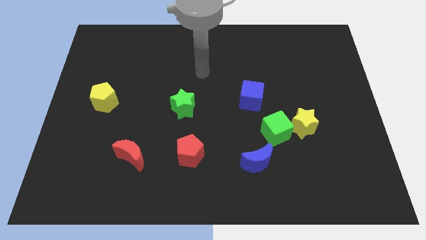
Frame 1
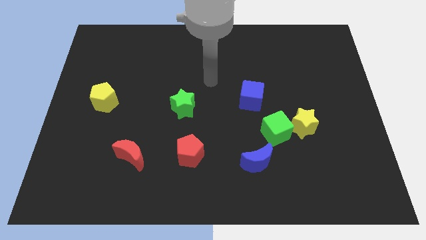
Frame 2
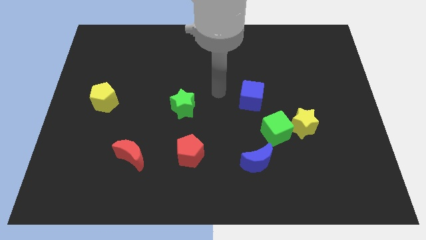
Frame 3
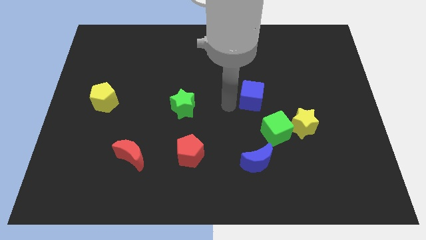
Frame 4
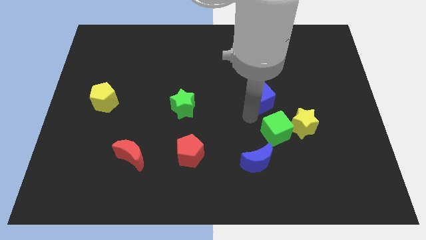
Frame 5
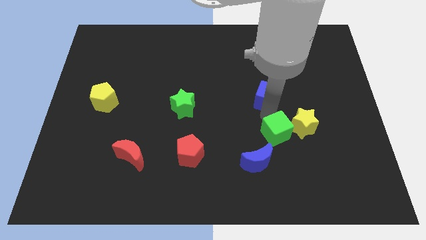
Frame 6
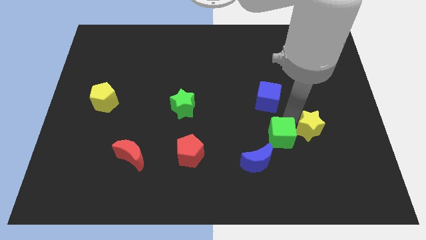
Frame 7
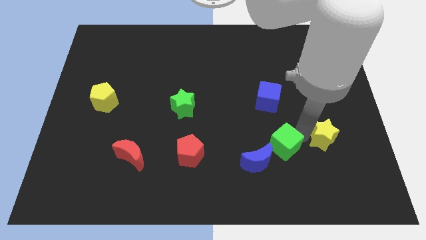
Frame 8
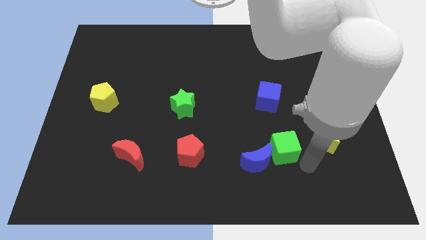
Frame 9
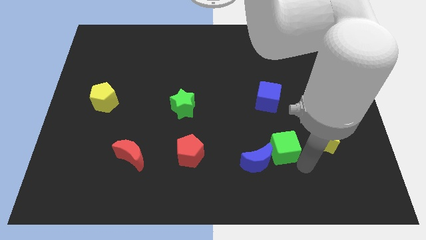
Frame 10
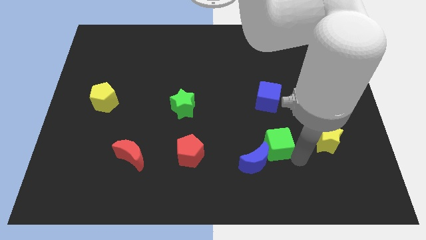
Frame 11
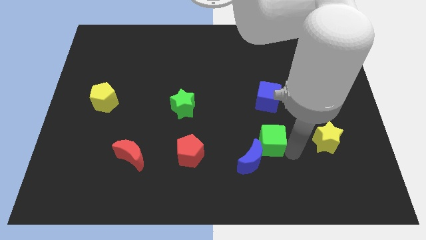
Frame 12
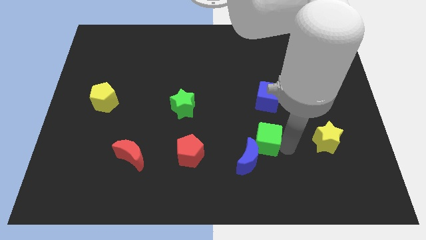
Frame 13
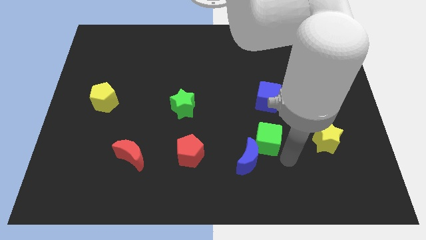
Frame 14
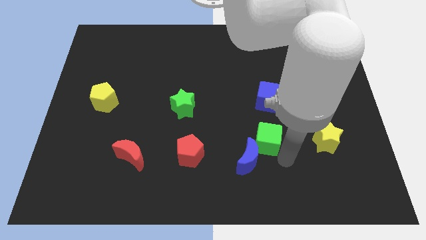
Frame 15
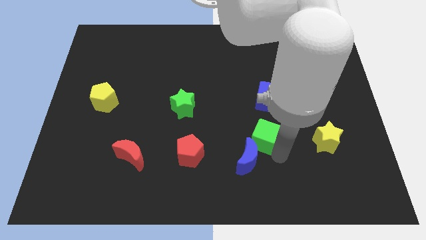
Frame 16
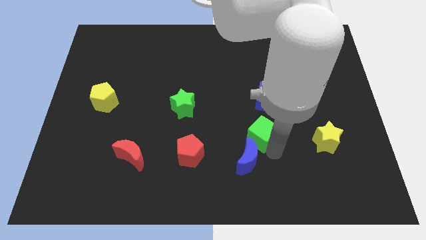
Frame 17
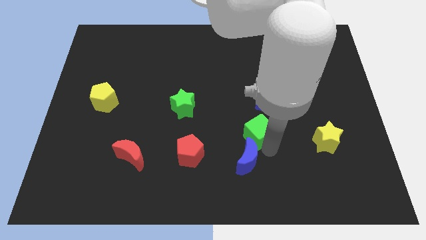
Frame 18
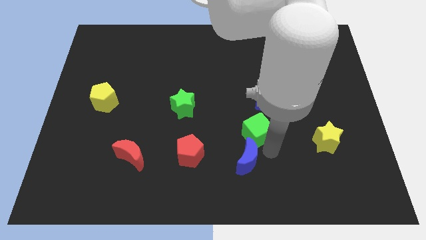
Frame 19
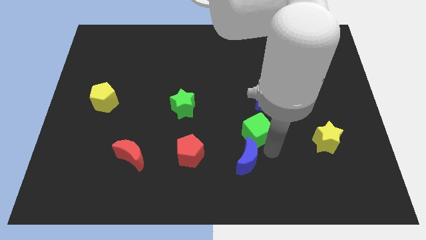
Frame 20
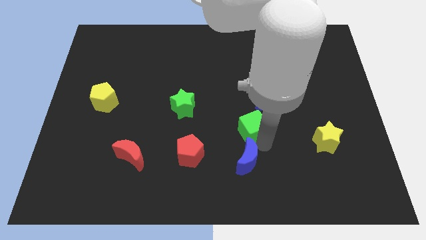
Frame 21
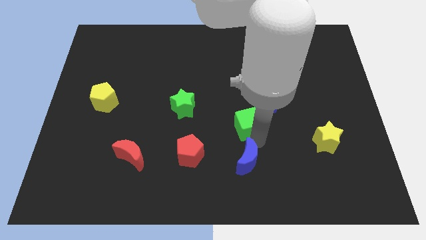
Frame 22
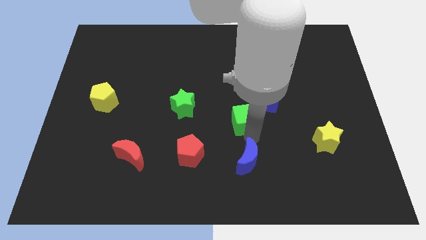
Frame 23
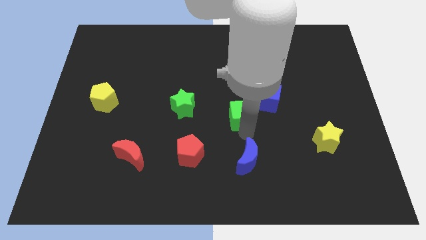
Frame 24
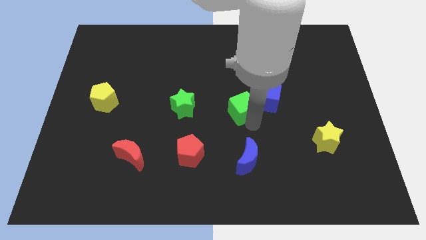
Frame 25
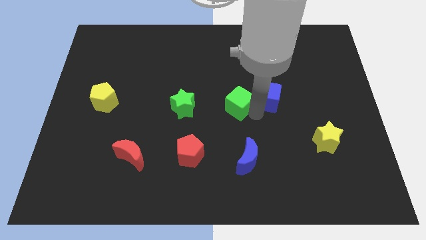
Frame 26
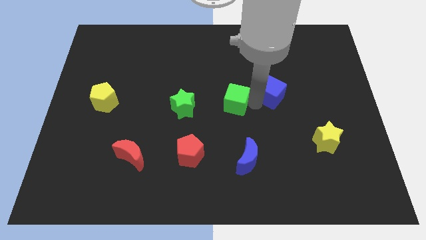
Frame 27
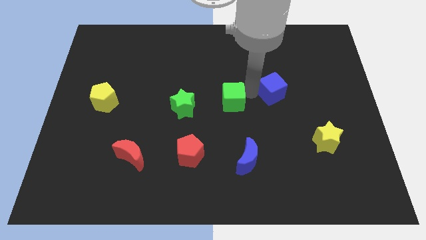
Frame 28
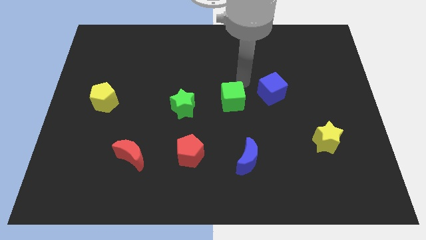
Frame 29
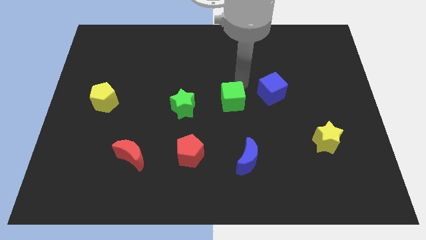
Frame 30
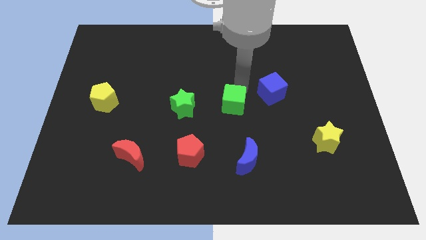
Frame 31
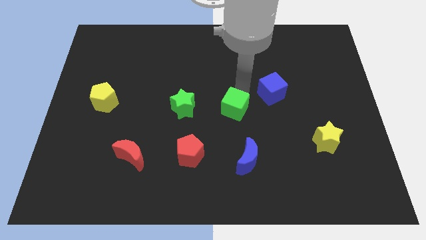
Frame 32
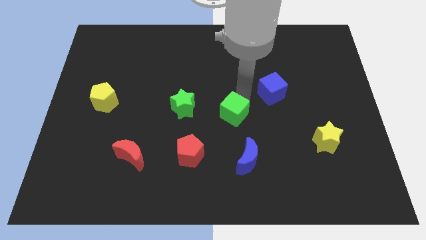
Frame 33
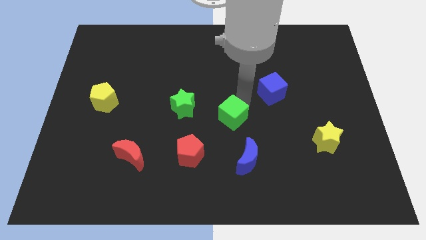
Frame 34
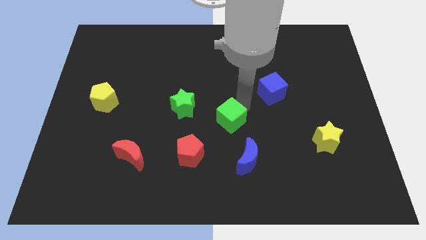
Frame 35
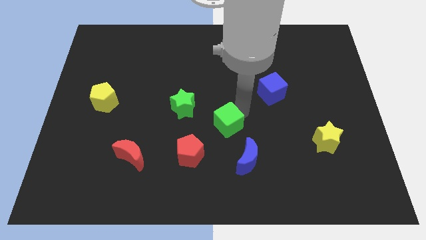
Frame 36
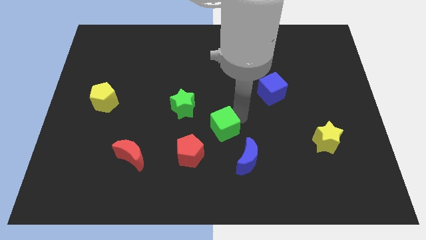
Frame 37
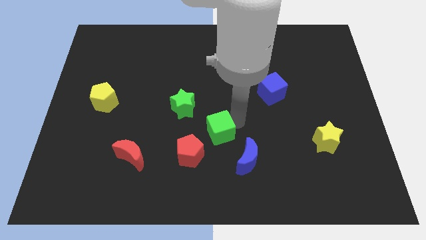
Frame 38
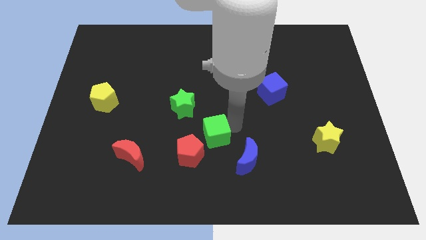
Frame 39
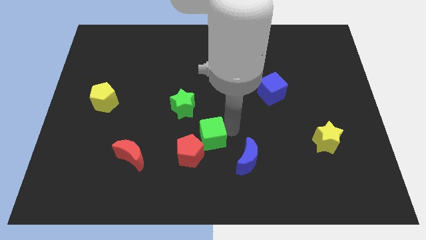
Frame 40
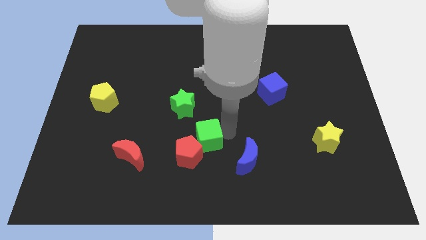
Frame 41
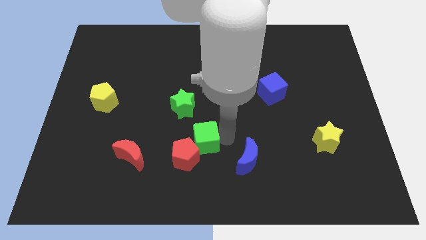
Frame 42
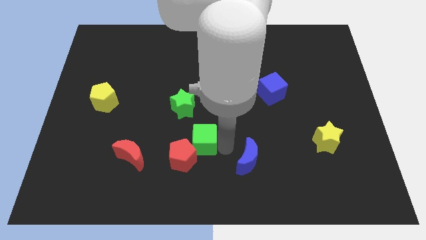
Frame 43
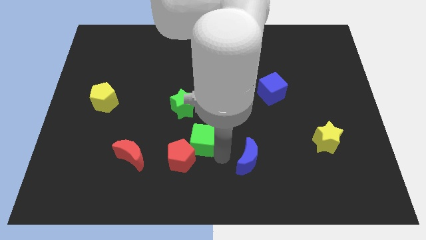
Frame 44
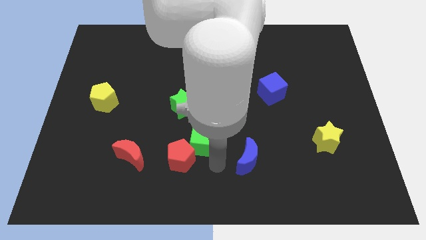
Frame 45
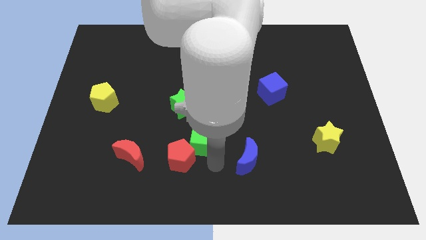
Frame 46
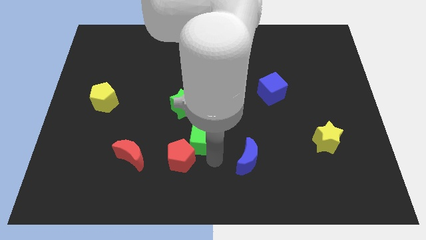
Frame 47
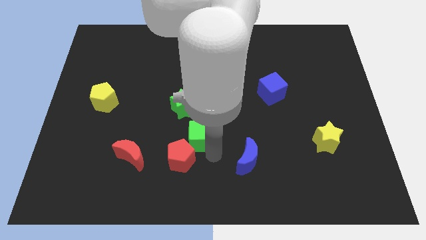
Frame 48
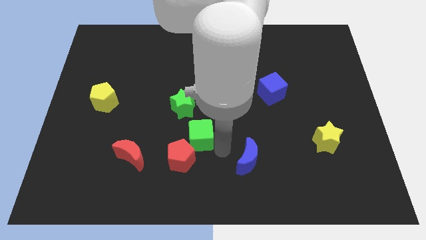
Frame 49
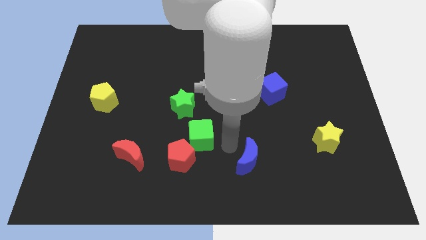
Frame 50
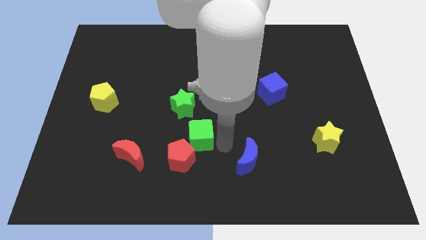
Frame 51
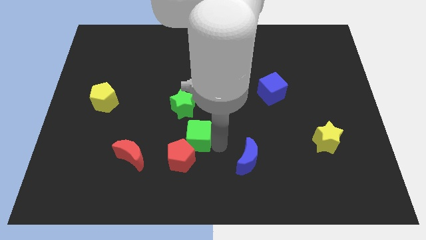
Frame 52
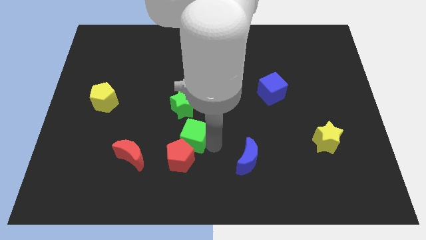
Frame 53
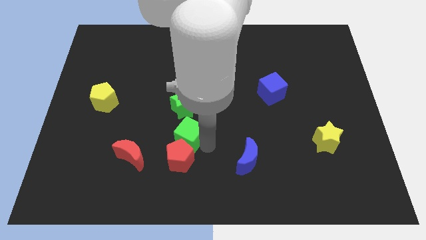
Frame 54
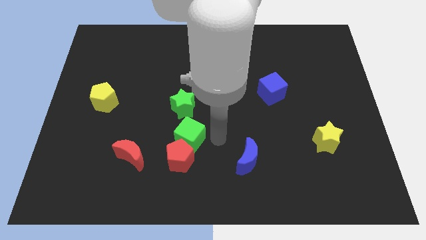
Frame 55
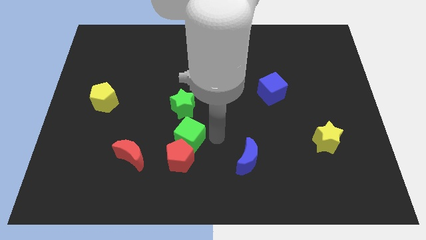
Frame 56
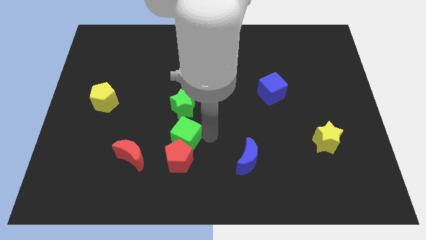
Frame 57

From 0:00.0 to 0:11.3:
move the green cube to the left

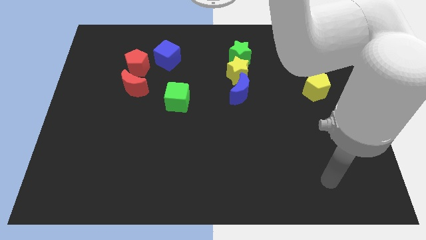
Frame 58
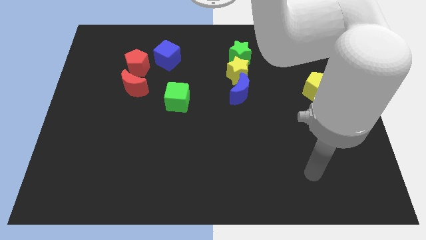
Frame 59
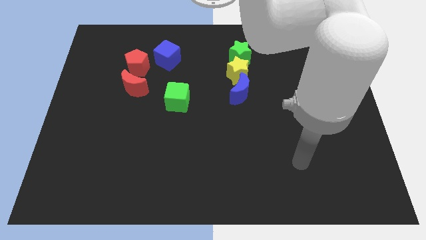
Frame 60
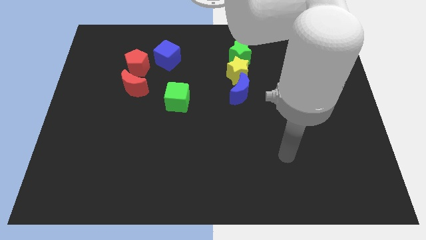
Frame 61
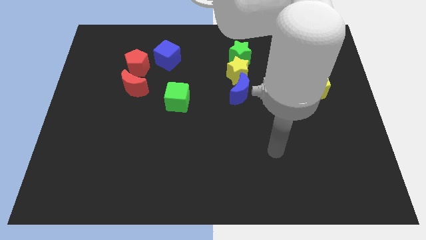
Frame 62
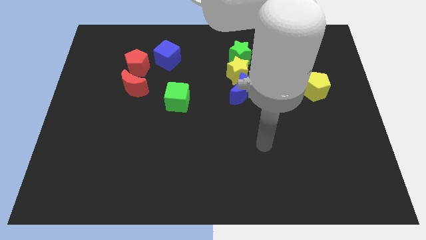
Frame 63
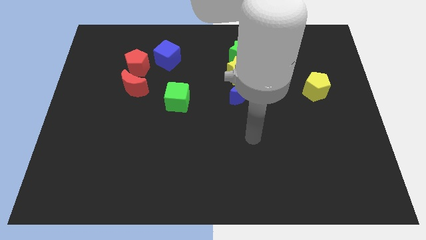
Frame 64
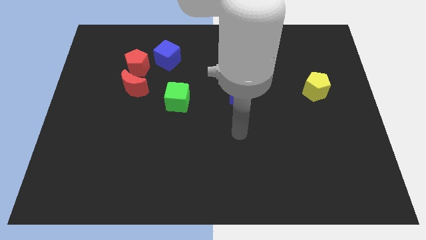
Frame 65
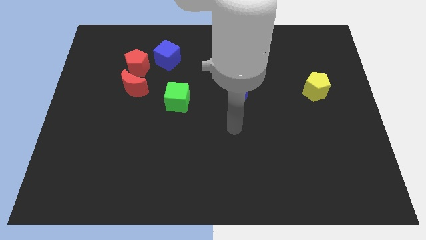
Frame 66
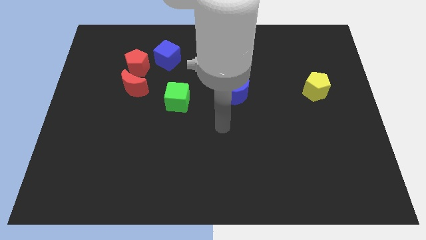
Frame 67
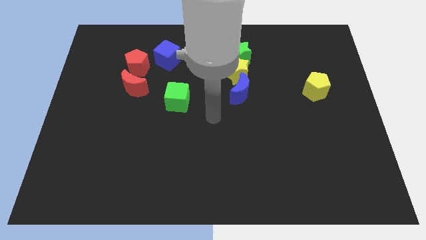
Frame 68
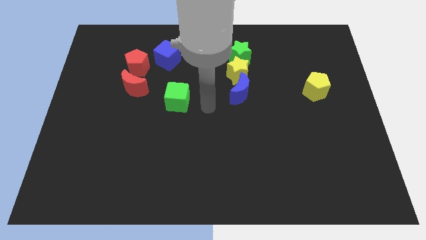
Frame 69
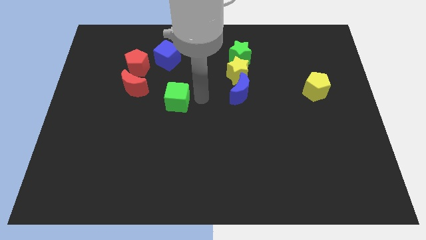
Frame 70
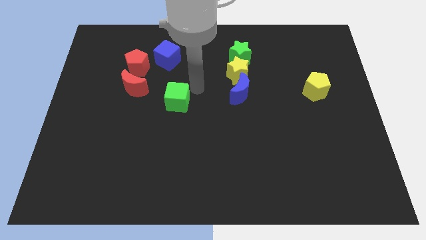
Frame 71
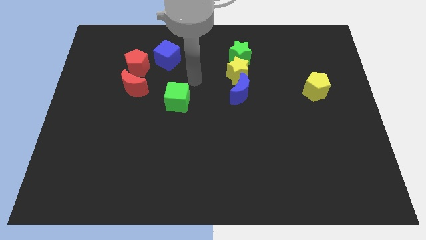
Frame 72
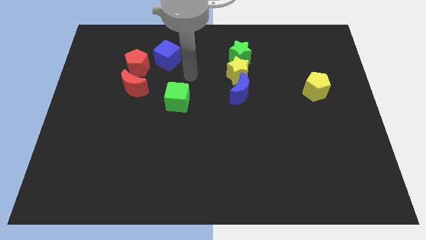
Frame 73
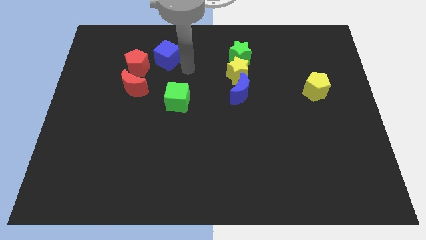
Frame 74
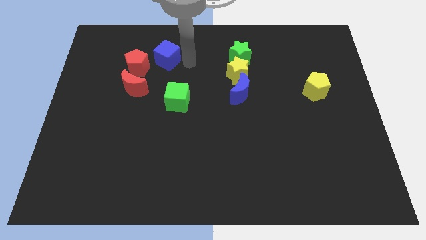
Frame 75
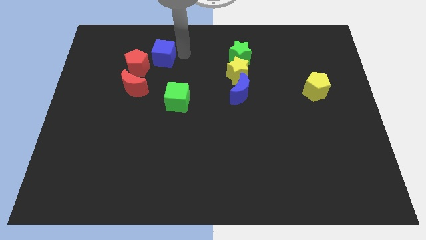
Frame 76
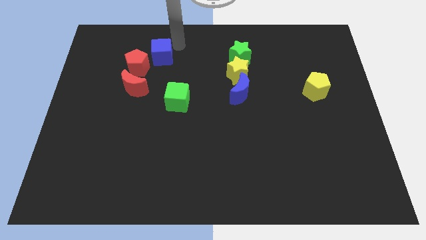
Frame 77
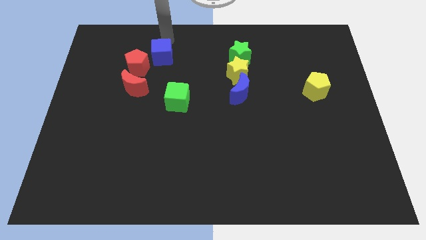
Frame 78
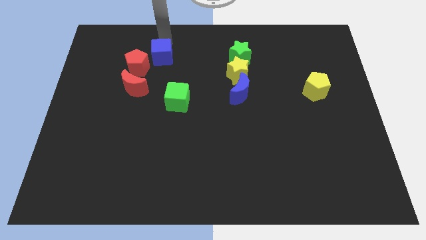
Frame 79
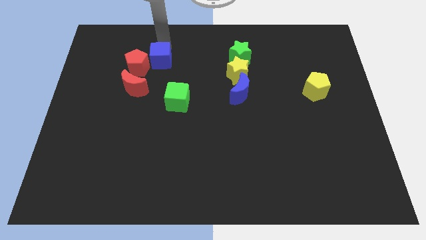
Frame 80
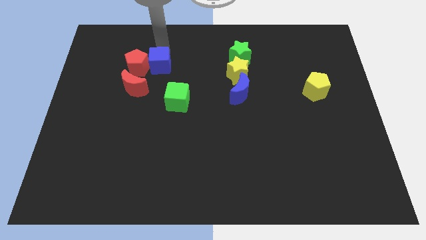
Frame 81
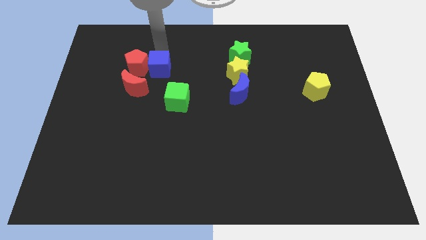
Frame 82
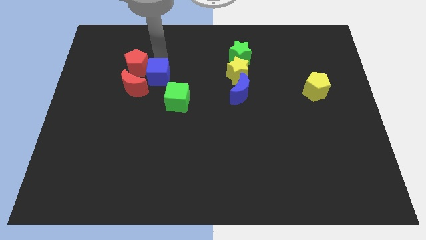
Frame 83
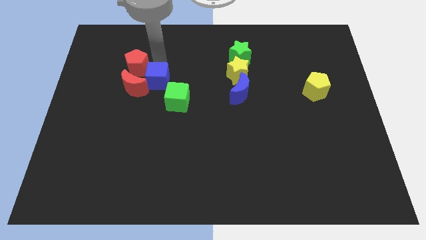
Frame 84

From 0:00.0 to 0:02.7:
move the blue cube slightly down

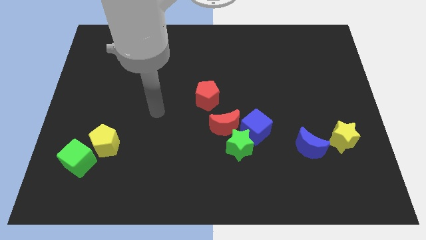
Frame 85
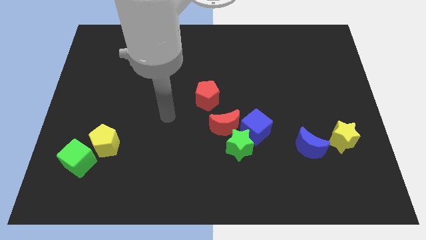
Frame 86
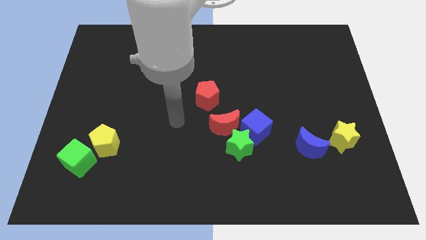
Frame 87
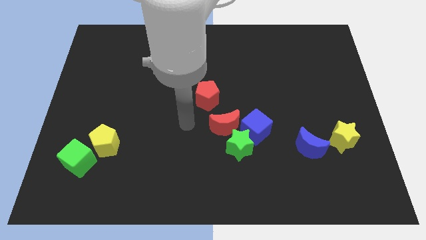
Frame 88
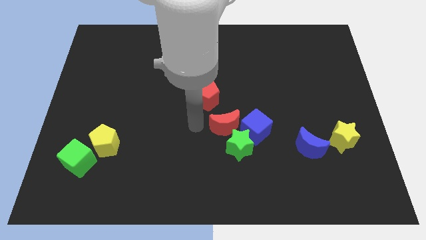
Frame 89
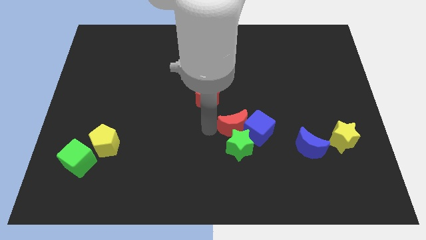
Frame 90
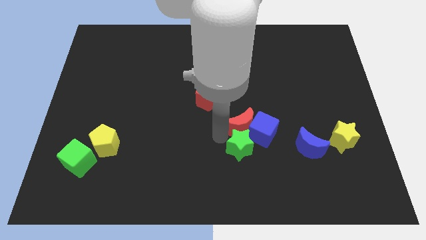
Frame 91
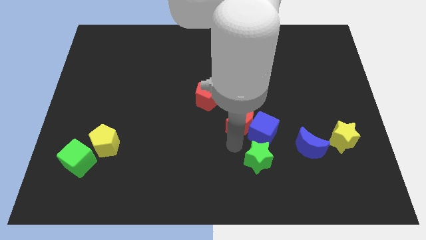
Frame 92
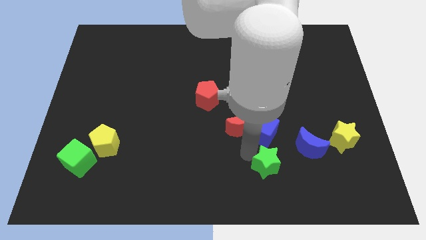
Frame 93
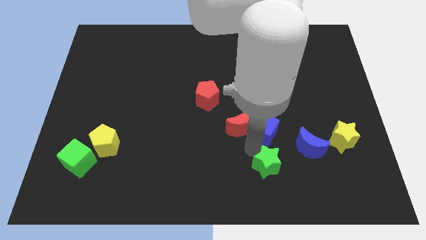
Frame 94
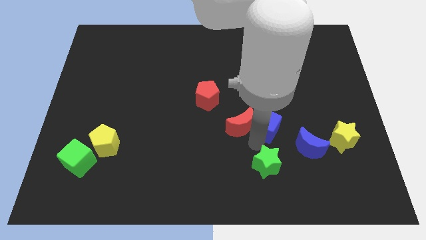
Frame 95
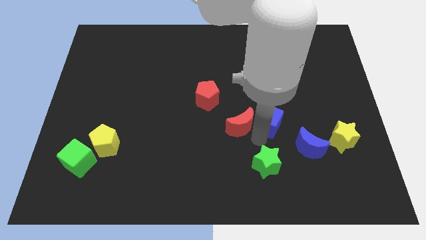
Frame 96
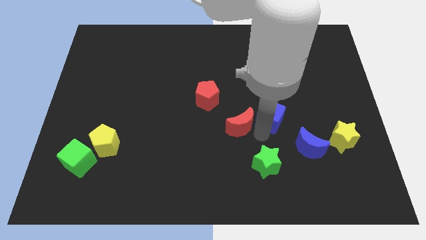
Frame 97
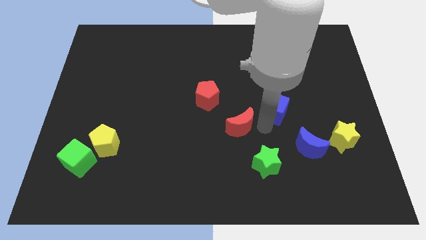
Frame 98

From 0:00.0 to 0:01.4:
slide the blue cube diagonally upwards and to the right a little
